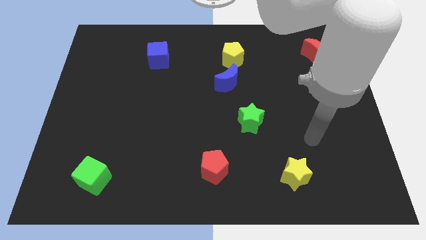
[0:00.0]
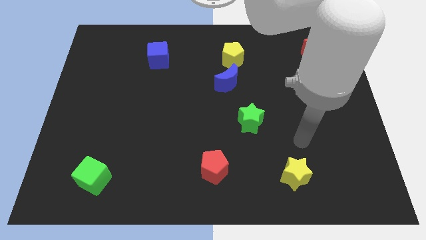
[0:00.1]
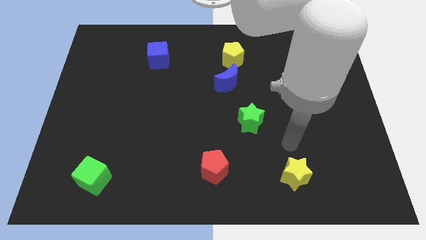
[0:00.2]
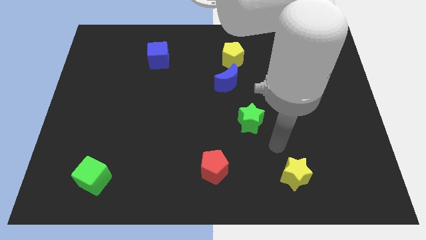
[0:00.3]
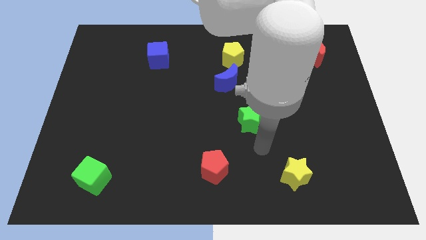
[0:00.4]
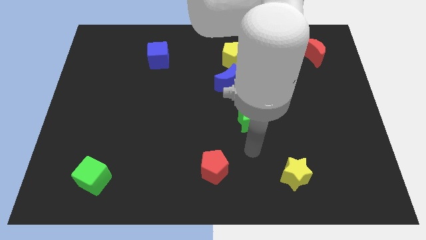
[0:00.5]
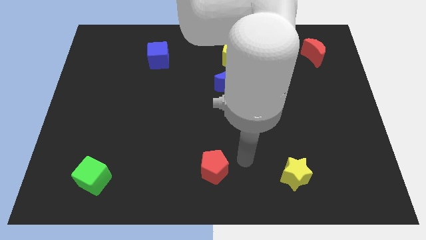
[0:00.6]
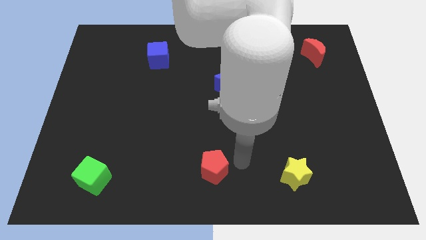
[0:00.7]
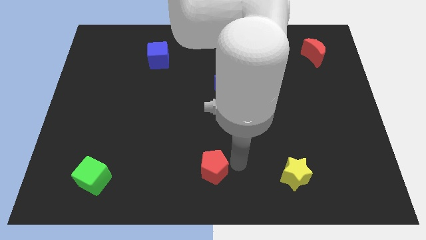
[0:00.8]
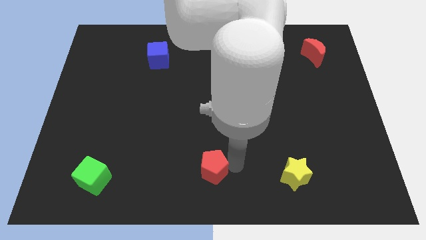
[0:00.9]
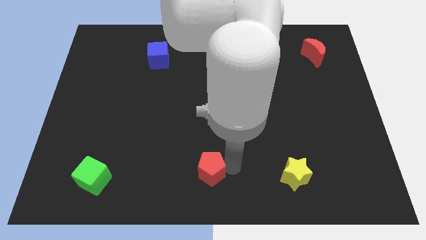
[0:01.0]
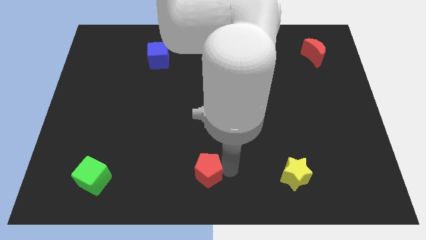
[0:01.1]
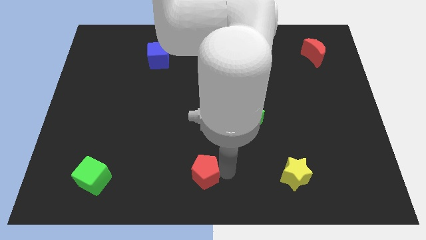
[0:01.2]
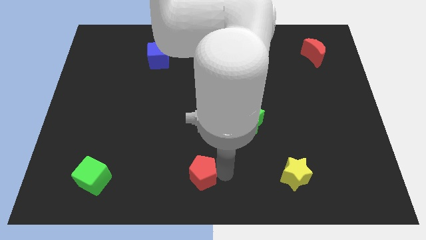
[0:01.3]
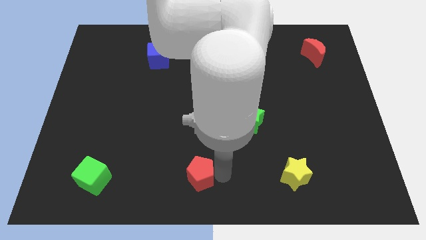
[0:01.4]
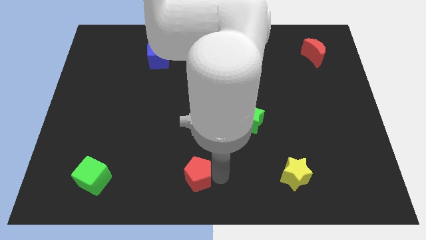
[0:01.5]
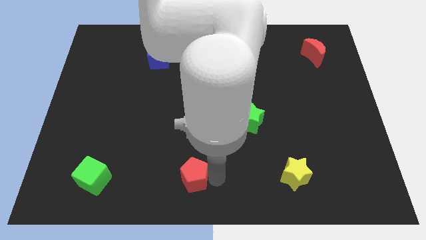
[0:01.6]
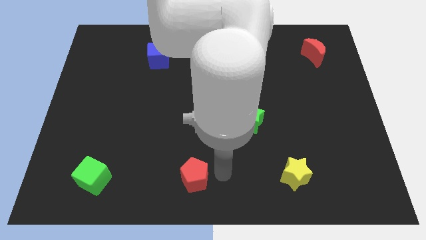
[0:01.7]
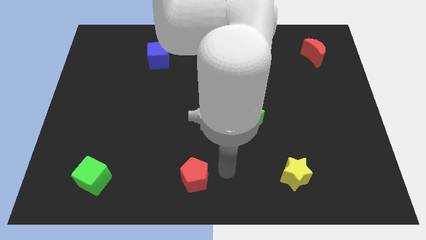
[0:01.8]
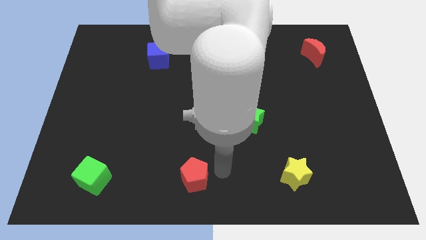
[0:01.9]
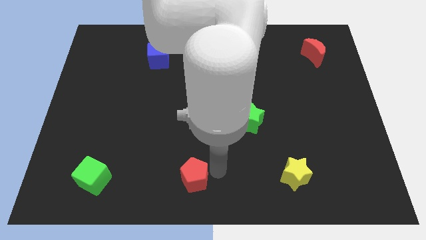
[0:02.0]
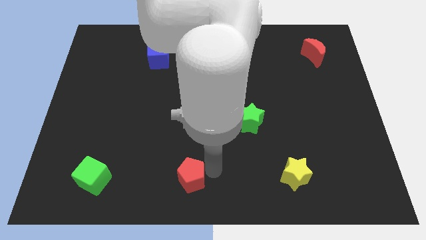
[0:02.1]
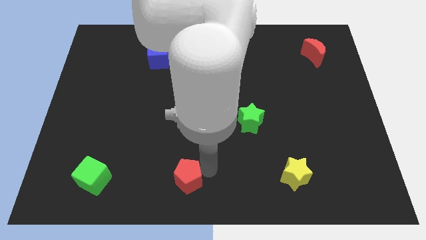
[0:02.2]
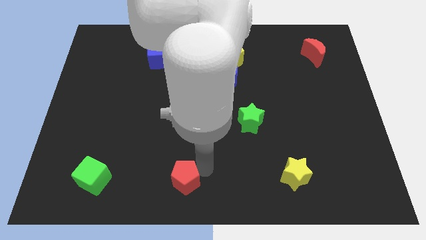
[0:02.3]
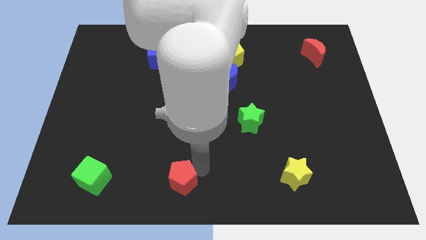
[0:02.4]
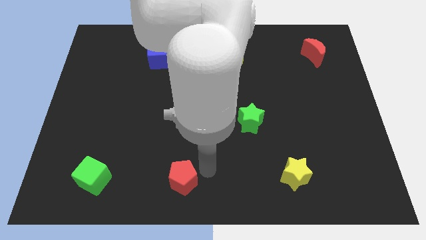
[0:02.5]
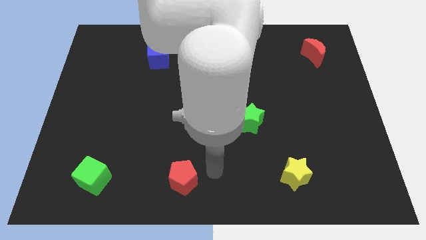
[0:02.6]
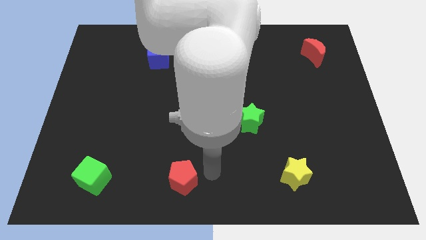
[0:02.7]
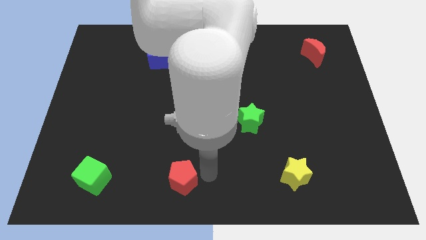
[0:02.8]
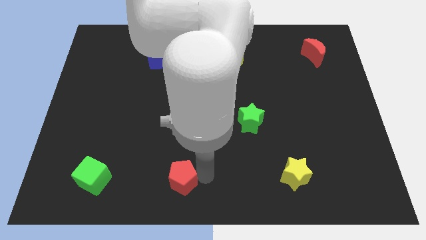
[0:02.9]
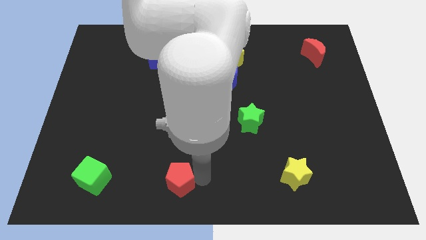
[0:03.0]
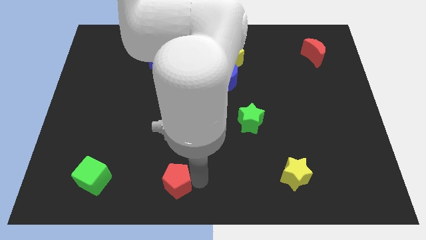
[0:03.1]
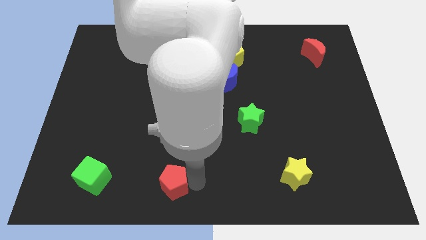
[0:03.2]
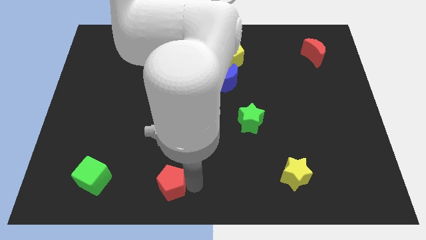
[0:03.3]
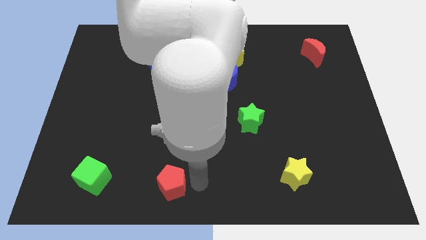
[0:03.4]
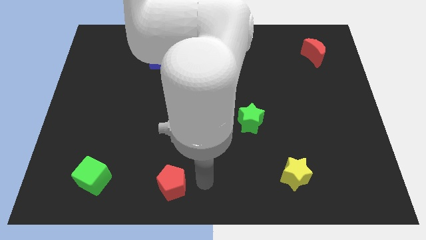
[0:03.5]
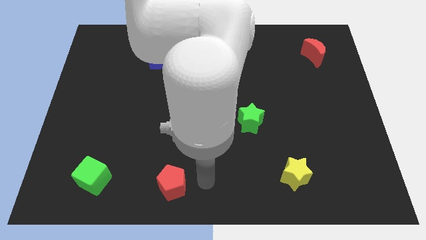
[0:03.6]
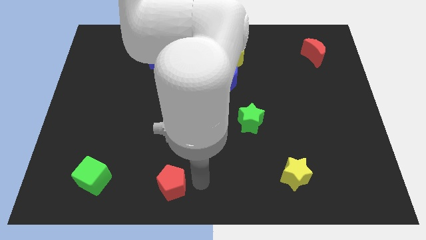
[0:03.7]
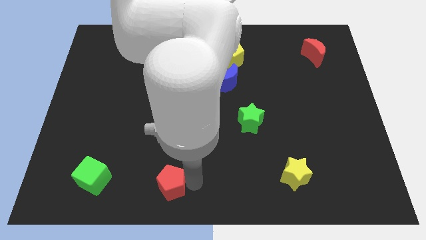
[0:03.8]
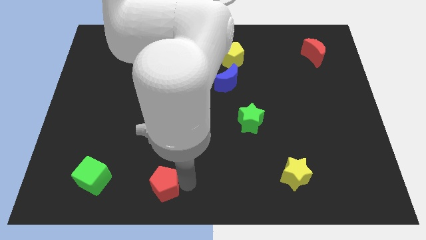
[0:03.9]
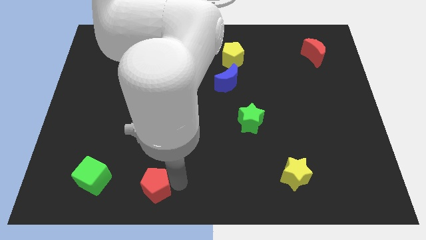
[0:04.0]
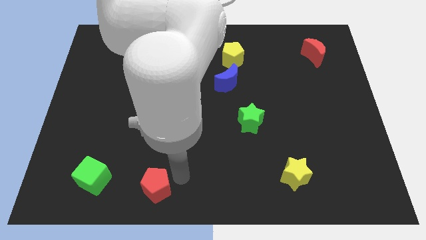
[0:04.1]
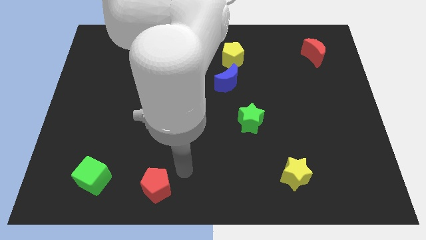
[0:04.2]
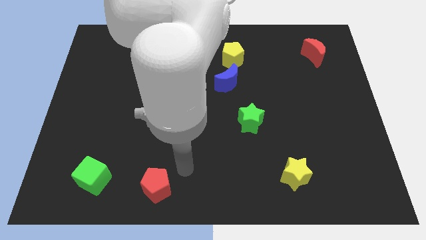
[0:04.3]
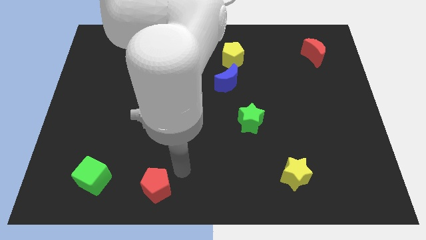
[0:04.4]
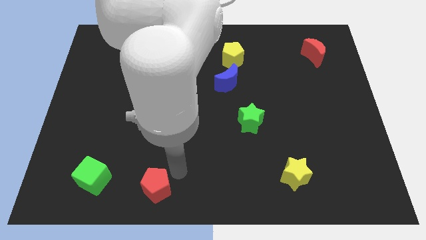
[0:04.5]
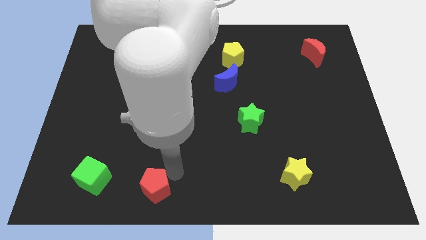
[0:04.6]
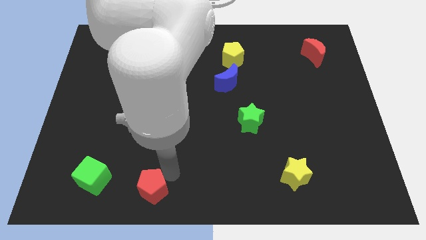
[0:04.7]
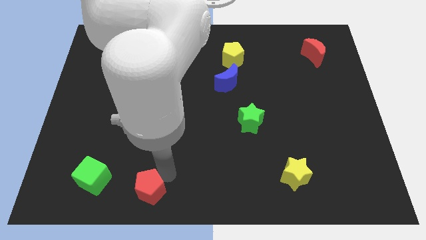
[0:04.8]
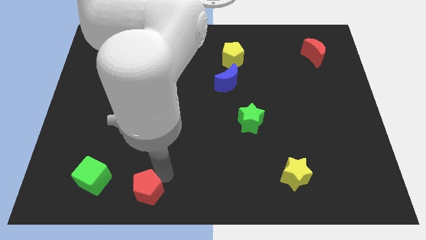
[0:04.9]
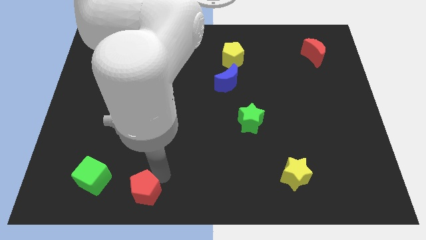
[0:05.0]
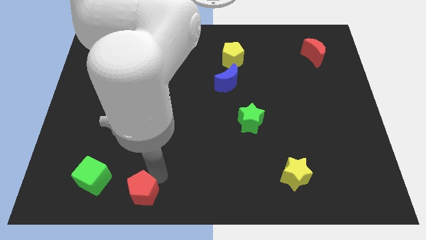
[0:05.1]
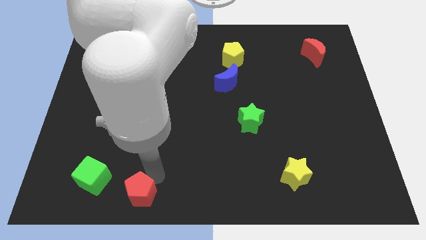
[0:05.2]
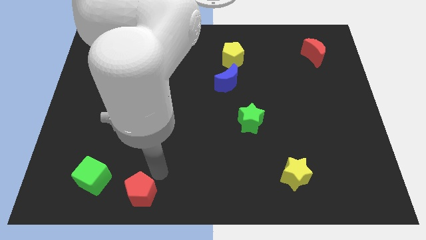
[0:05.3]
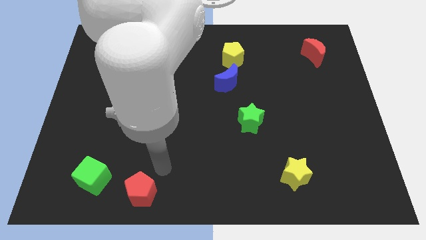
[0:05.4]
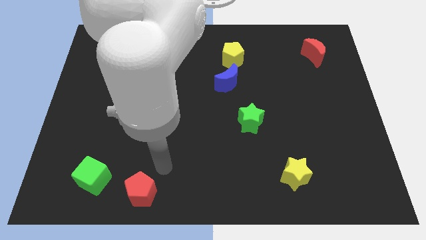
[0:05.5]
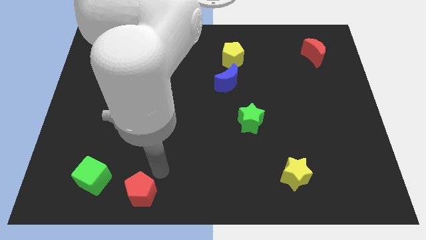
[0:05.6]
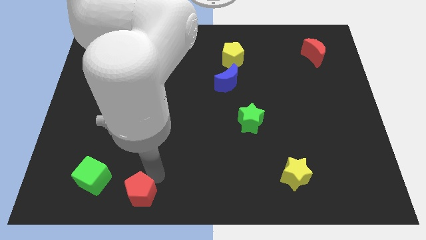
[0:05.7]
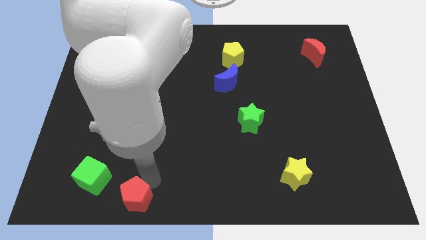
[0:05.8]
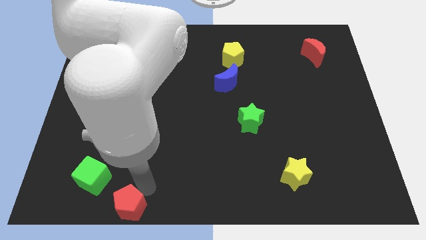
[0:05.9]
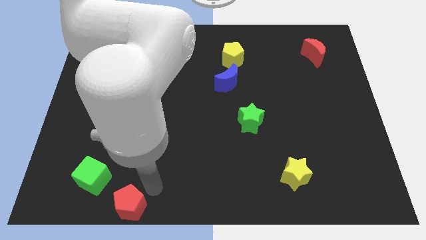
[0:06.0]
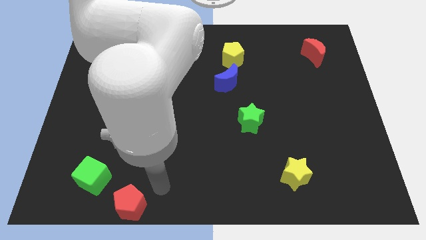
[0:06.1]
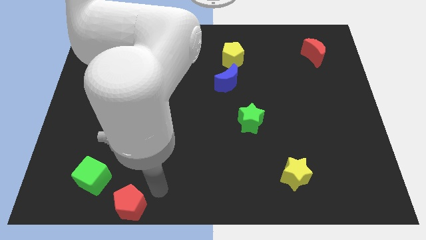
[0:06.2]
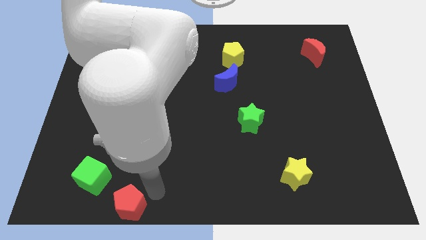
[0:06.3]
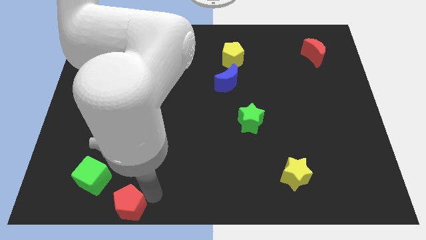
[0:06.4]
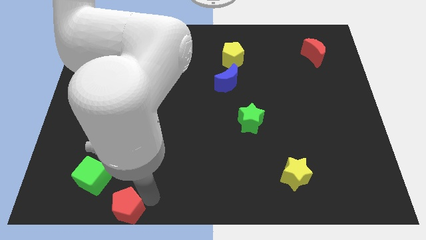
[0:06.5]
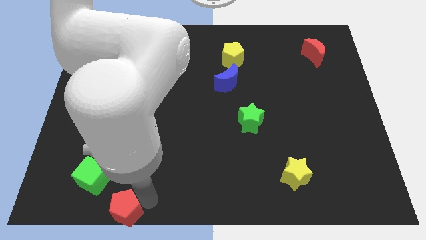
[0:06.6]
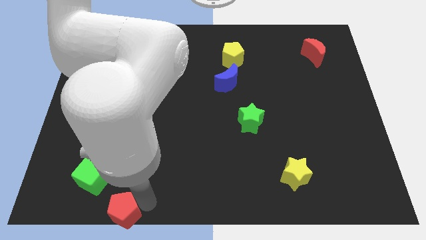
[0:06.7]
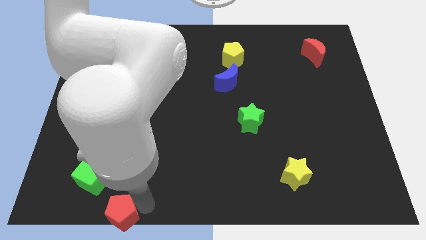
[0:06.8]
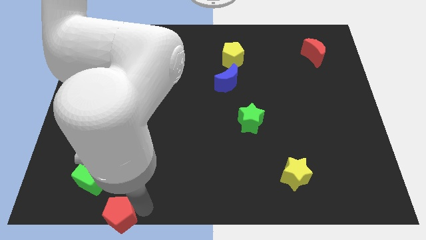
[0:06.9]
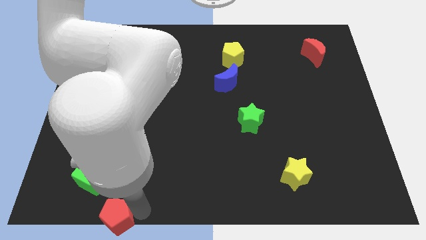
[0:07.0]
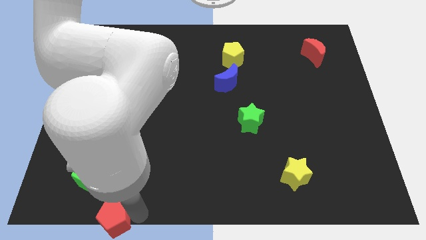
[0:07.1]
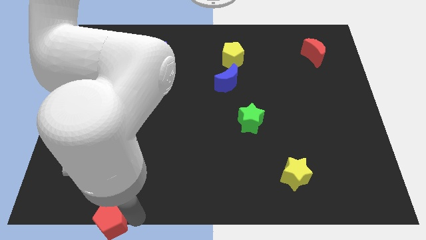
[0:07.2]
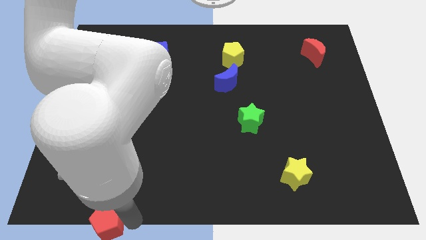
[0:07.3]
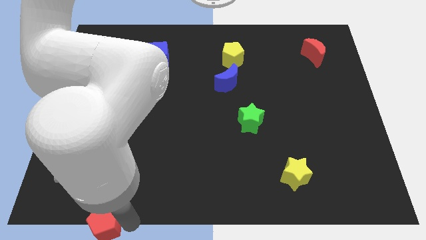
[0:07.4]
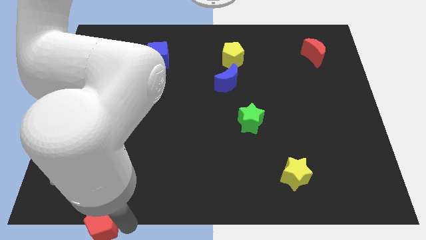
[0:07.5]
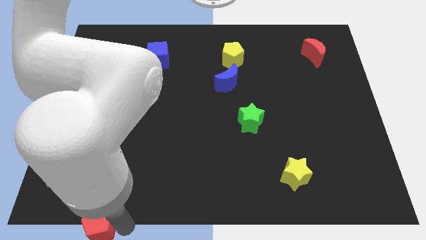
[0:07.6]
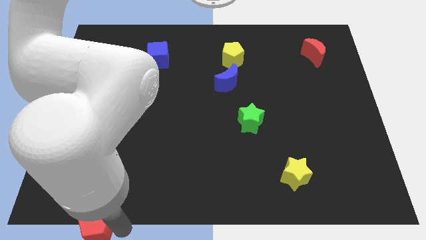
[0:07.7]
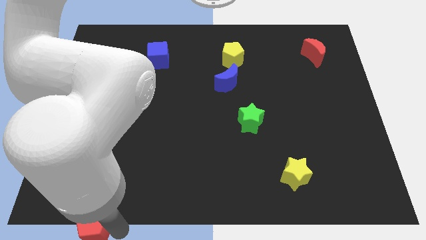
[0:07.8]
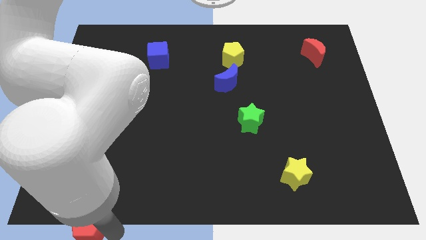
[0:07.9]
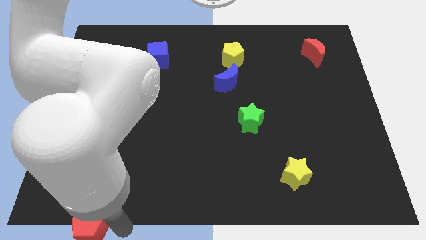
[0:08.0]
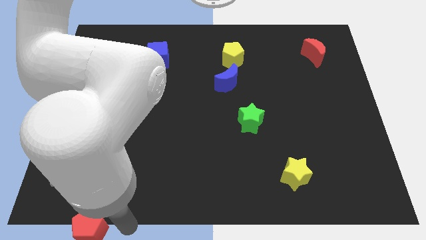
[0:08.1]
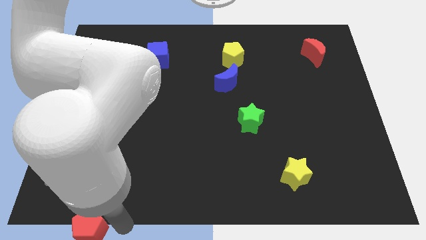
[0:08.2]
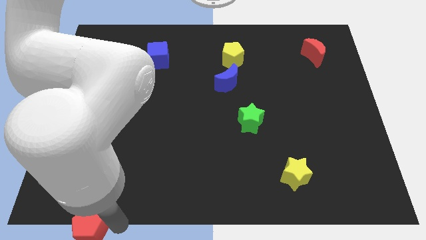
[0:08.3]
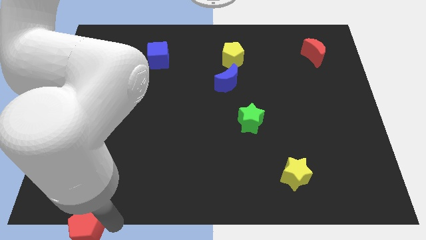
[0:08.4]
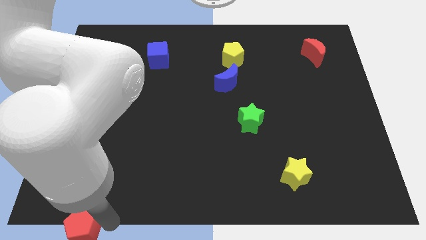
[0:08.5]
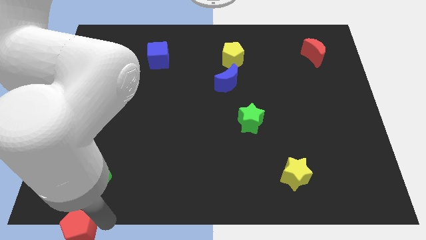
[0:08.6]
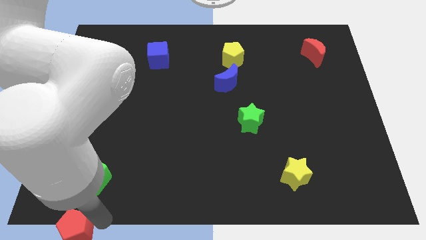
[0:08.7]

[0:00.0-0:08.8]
slide the red pentagon to the lower left corner
